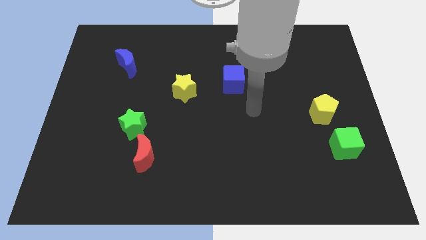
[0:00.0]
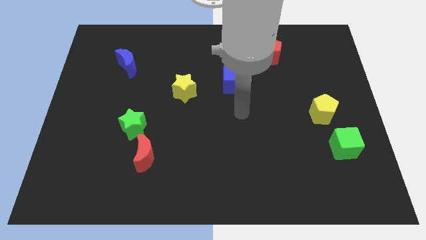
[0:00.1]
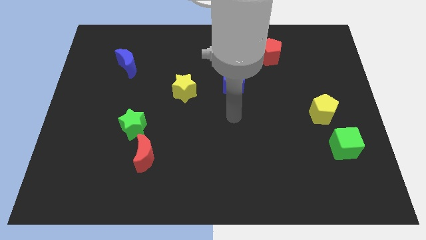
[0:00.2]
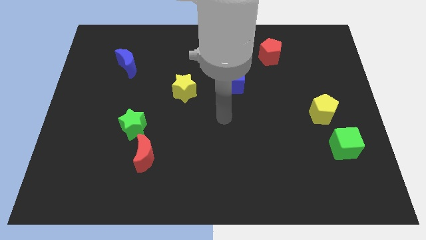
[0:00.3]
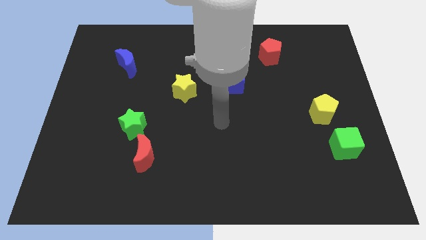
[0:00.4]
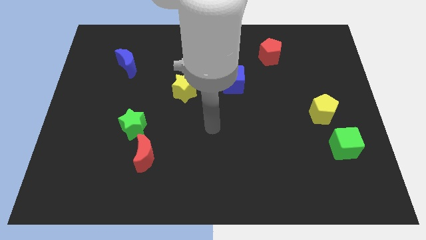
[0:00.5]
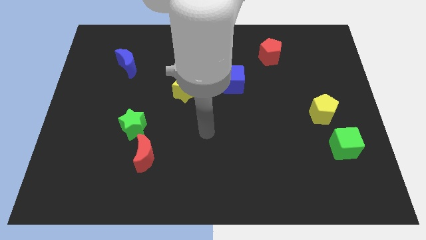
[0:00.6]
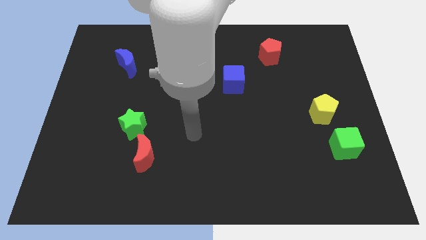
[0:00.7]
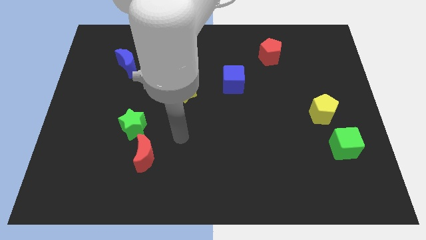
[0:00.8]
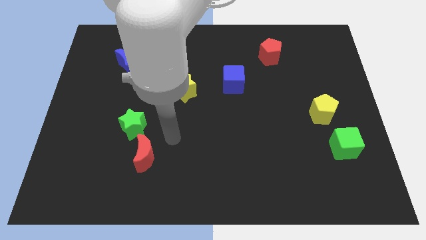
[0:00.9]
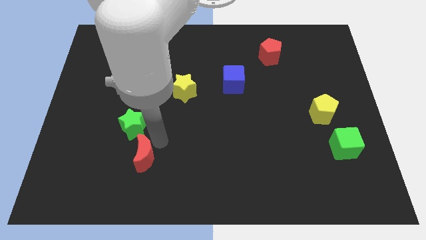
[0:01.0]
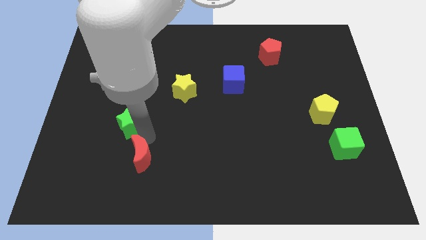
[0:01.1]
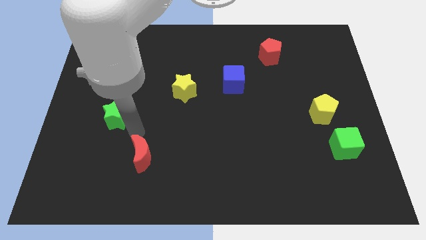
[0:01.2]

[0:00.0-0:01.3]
separate the red moon from the green star

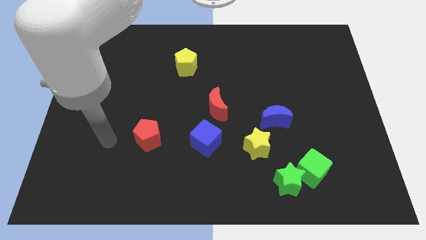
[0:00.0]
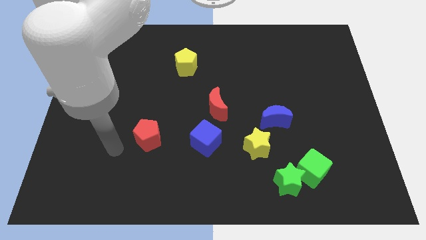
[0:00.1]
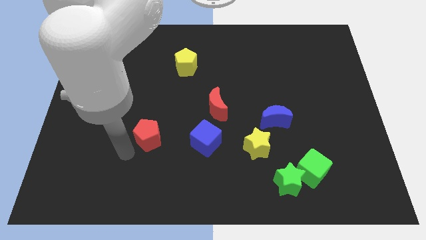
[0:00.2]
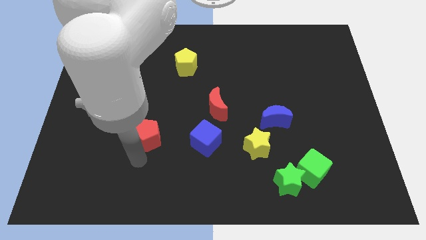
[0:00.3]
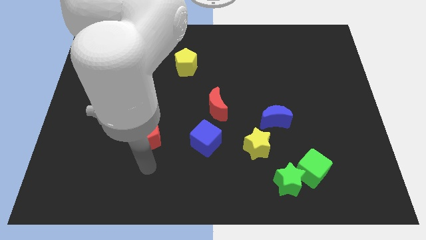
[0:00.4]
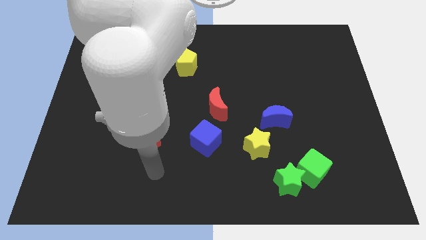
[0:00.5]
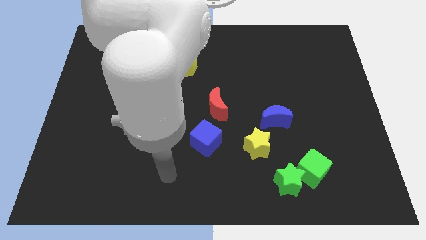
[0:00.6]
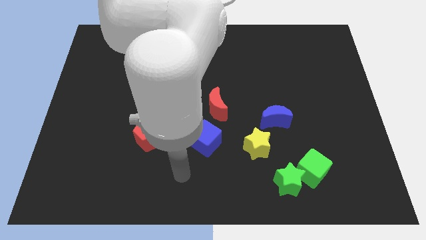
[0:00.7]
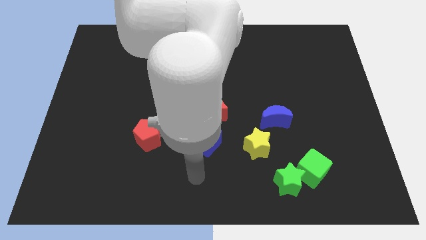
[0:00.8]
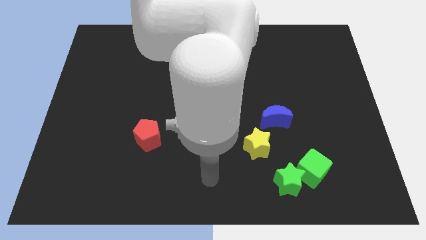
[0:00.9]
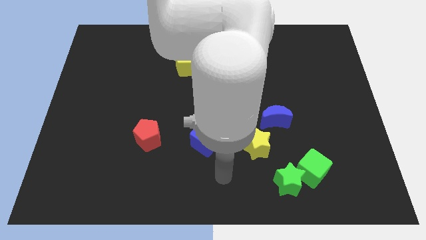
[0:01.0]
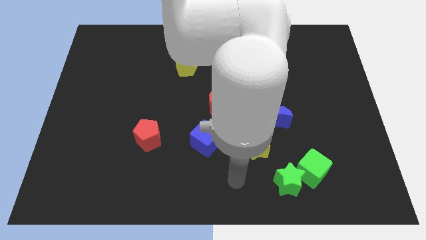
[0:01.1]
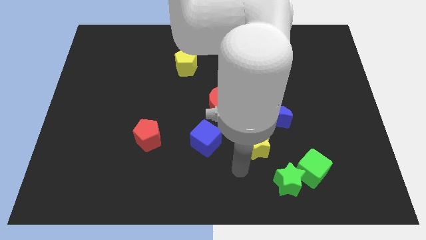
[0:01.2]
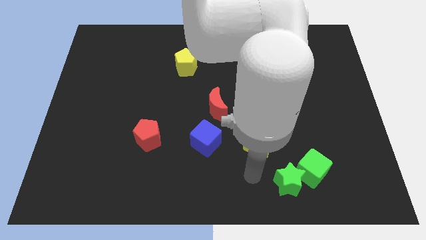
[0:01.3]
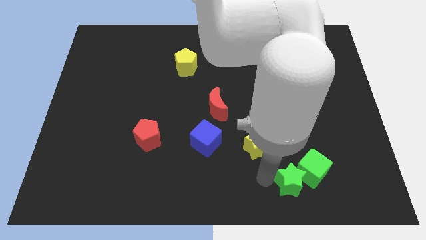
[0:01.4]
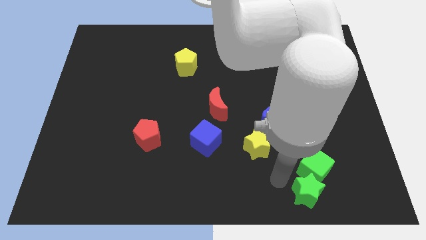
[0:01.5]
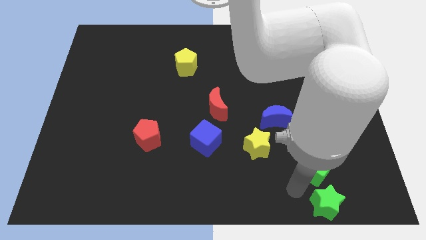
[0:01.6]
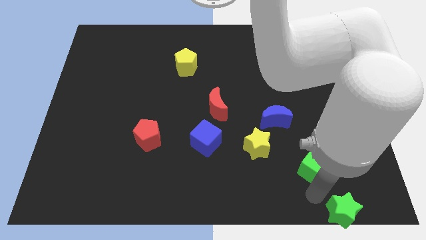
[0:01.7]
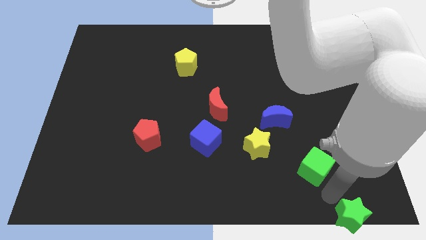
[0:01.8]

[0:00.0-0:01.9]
pull the green cube apart from the green star

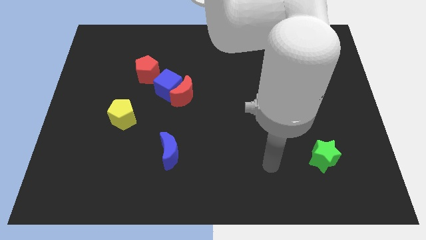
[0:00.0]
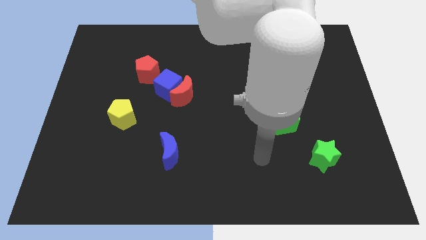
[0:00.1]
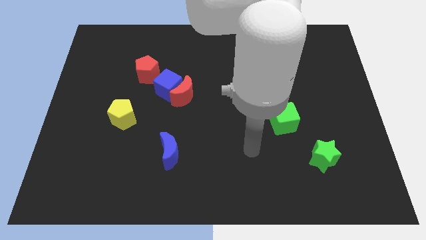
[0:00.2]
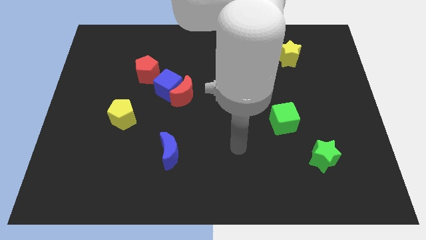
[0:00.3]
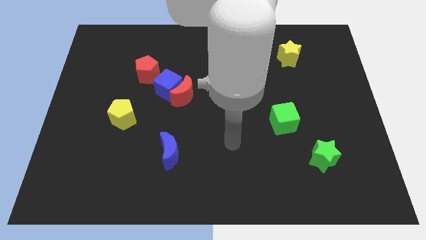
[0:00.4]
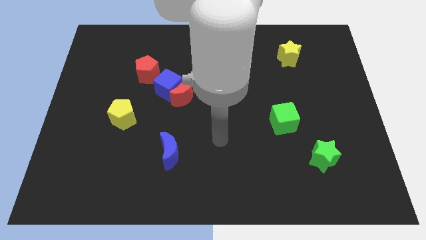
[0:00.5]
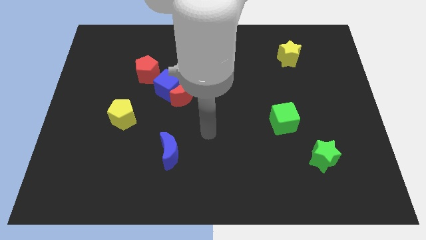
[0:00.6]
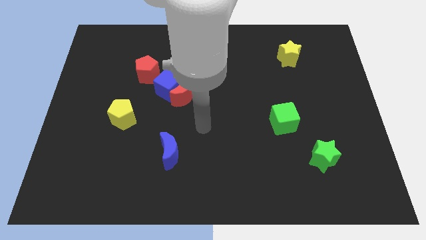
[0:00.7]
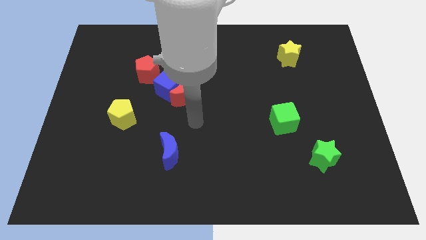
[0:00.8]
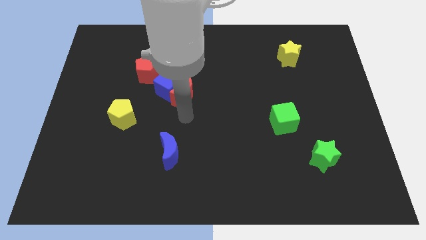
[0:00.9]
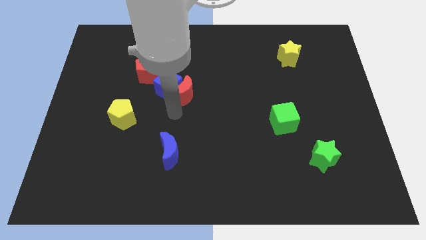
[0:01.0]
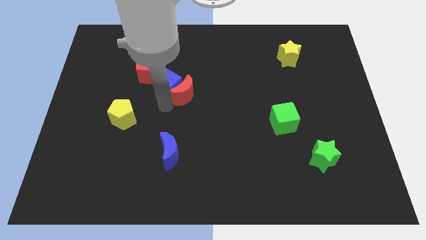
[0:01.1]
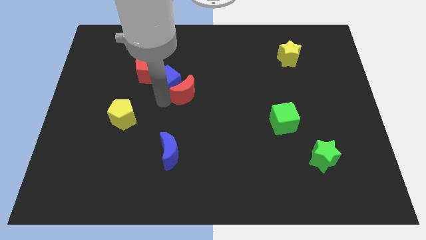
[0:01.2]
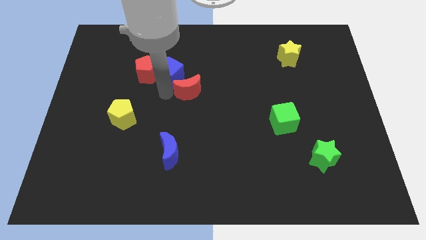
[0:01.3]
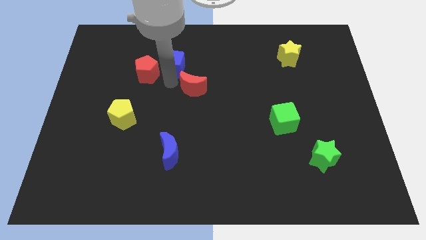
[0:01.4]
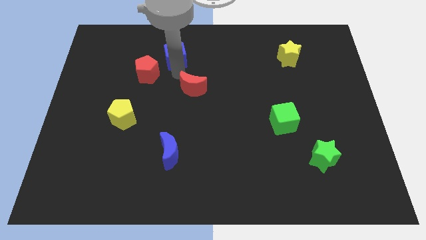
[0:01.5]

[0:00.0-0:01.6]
separate the red moon from the blue cube

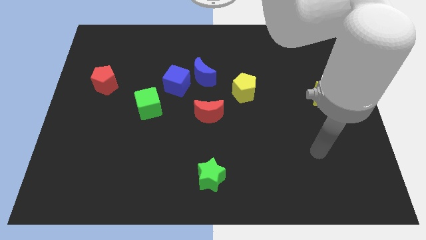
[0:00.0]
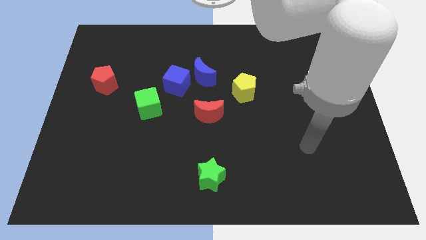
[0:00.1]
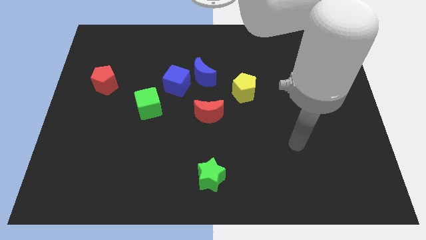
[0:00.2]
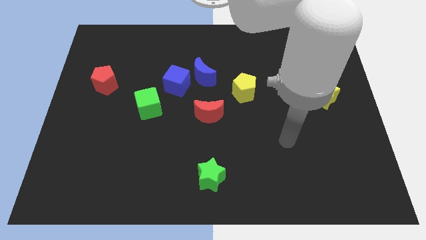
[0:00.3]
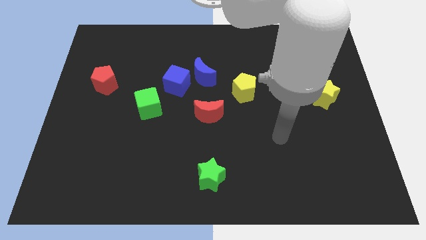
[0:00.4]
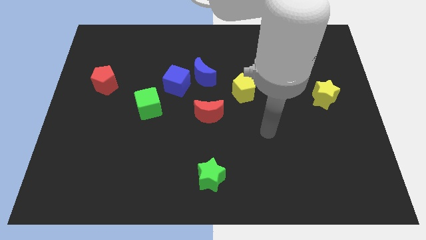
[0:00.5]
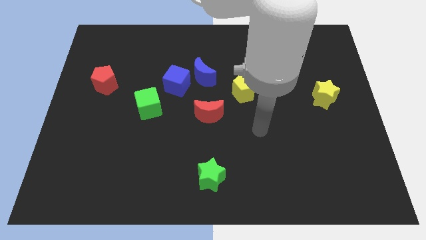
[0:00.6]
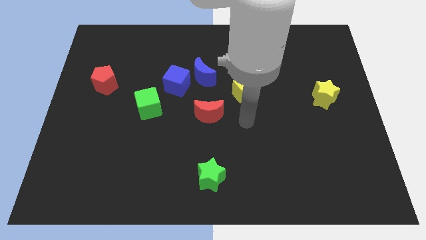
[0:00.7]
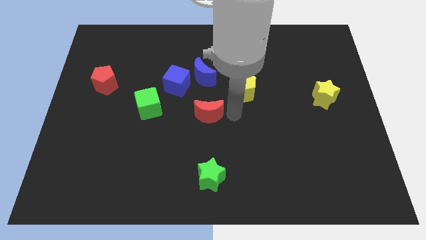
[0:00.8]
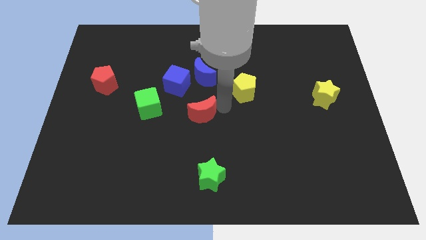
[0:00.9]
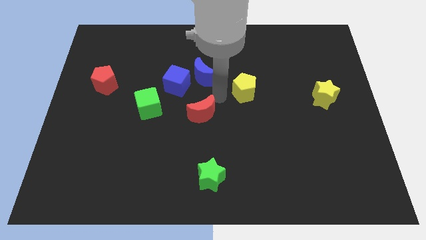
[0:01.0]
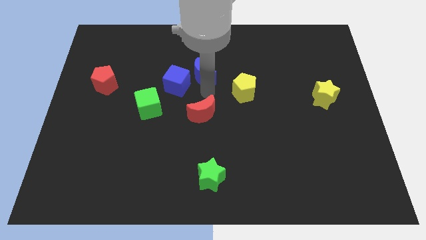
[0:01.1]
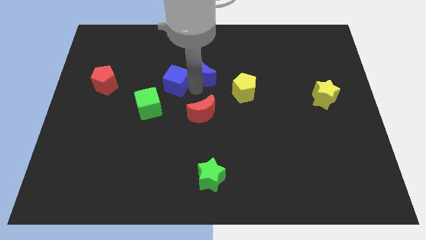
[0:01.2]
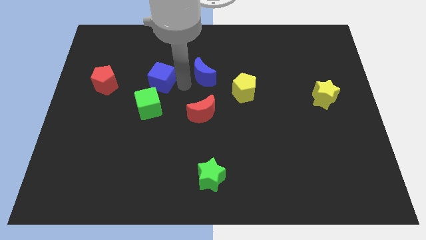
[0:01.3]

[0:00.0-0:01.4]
pull the blue moon apart from the blue cube

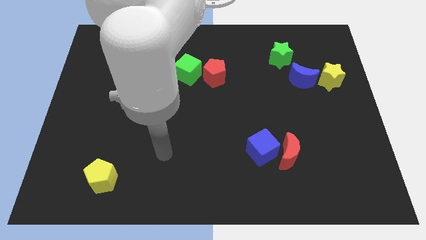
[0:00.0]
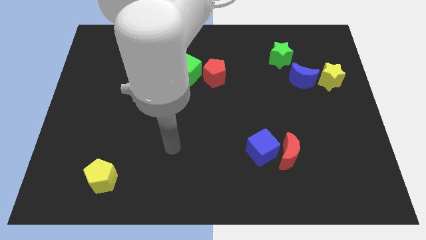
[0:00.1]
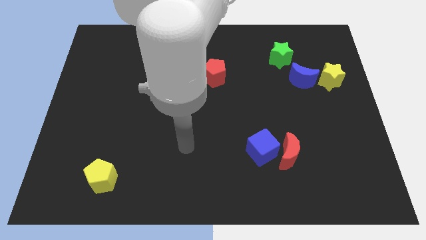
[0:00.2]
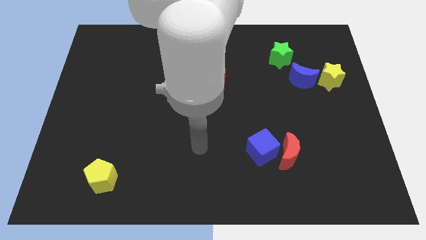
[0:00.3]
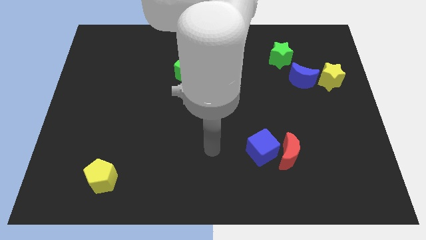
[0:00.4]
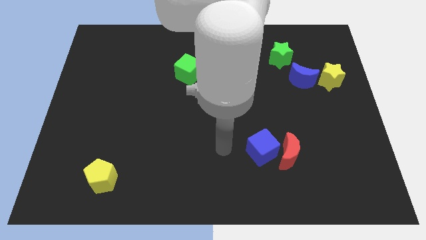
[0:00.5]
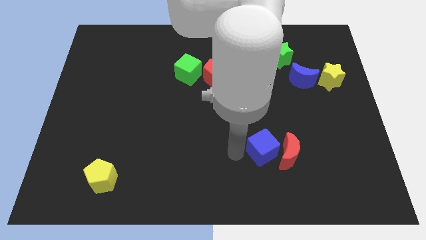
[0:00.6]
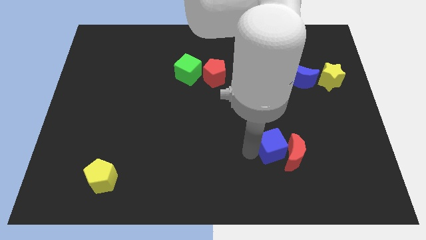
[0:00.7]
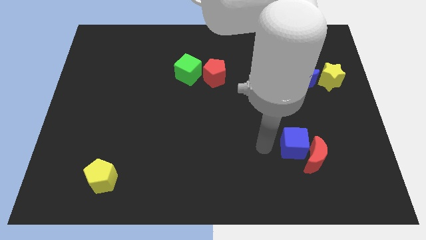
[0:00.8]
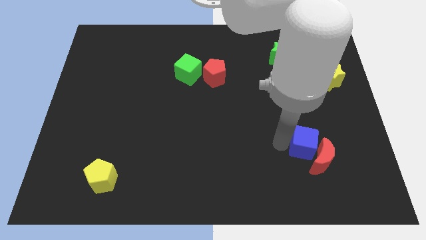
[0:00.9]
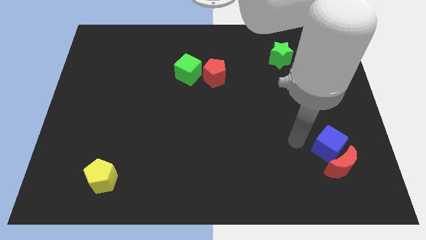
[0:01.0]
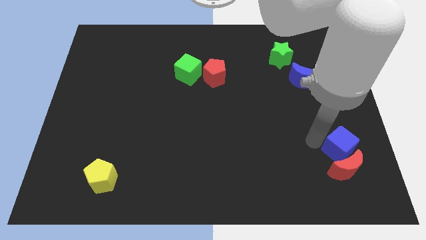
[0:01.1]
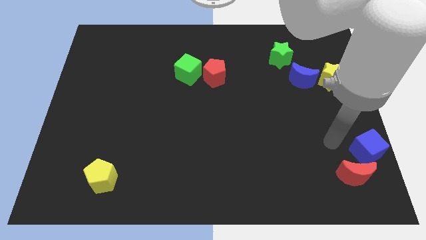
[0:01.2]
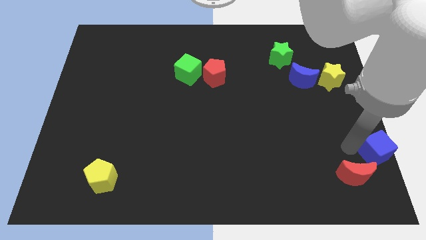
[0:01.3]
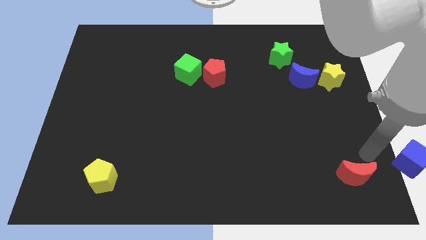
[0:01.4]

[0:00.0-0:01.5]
move the red moon away from the blue cube

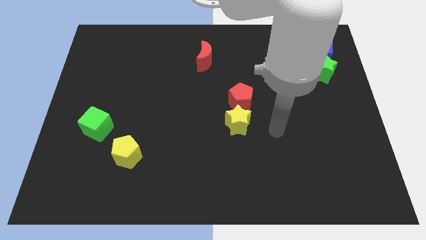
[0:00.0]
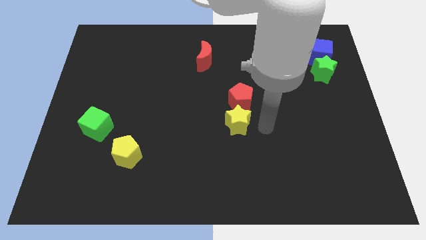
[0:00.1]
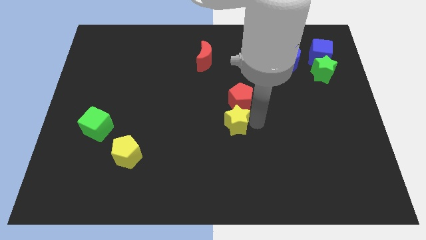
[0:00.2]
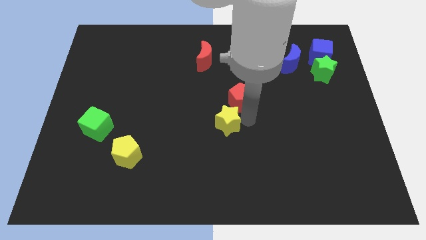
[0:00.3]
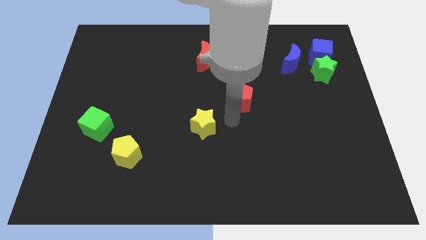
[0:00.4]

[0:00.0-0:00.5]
separate the red pentagon from the yellow star

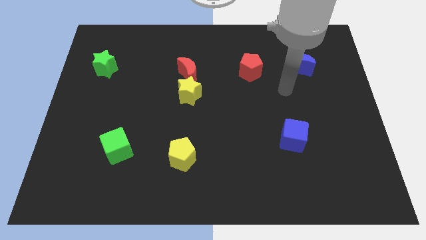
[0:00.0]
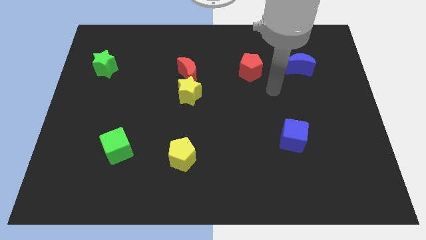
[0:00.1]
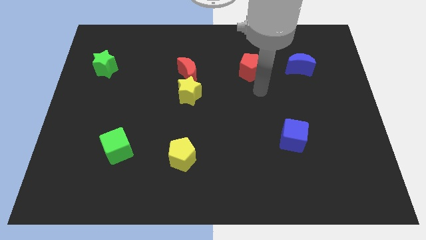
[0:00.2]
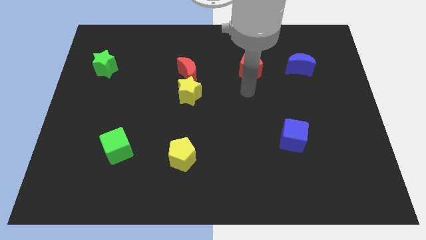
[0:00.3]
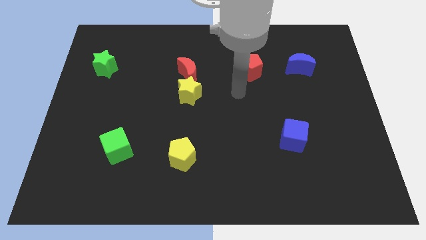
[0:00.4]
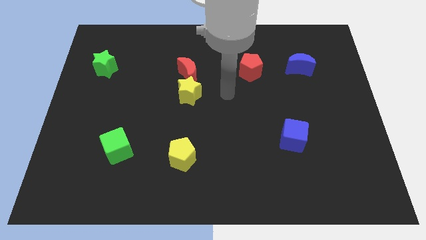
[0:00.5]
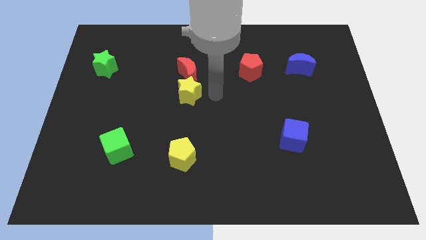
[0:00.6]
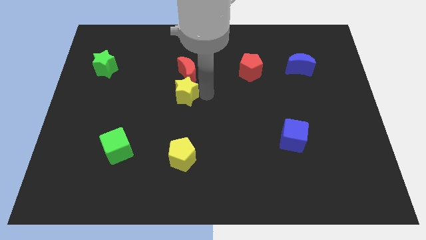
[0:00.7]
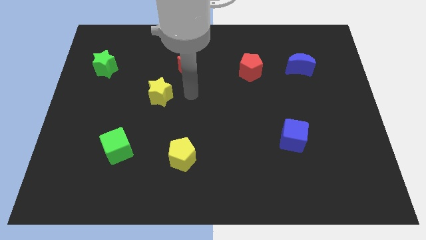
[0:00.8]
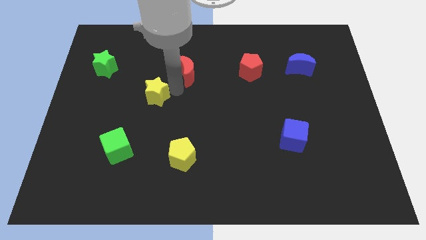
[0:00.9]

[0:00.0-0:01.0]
separate the red moon from the yellow star

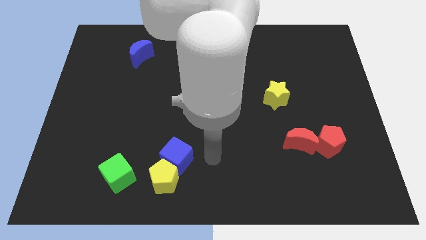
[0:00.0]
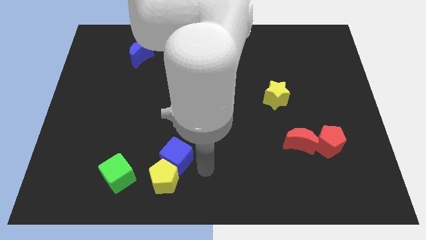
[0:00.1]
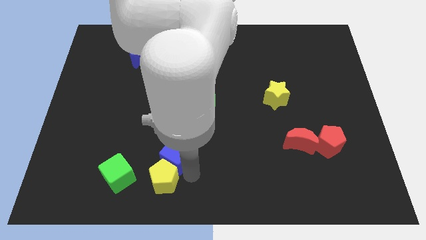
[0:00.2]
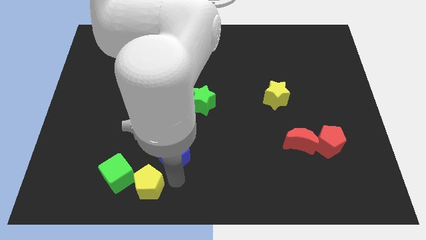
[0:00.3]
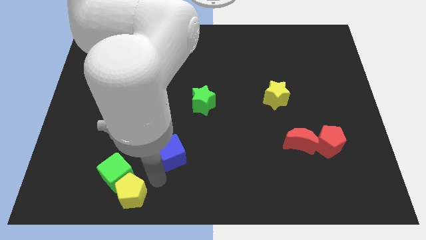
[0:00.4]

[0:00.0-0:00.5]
pull the blue cube apart from the yellow pentagon
